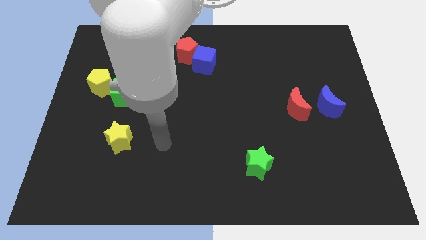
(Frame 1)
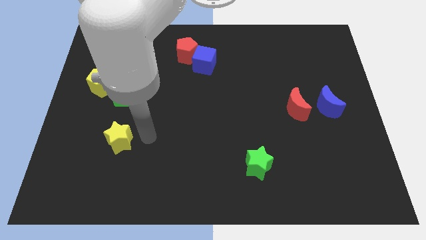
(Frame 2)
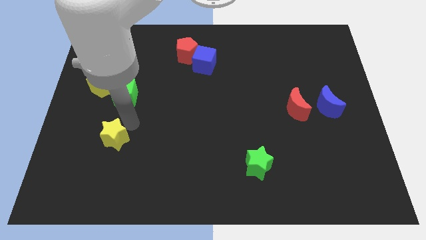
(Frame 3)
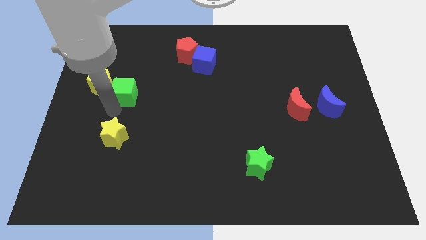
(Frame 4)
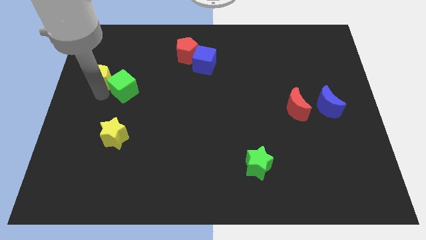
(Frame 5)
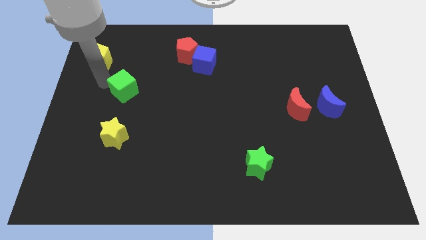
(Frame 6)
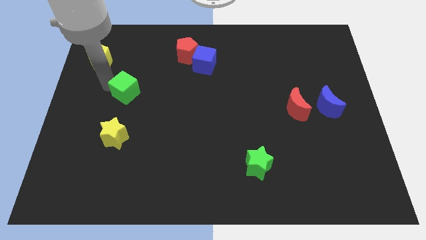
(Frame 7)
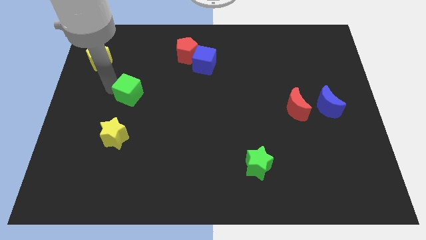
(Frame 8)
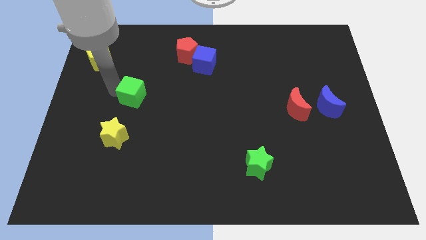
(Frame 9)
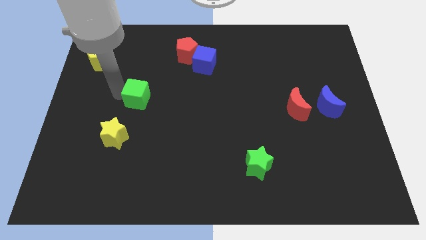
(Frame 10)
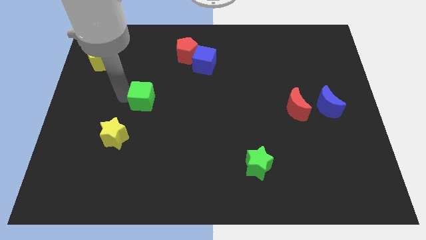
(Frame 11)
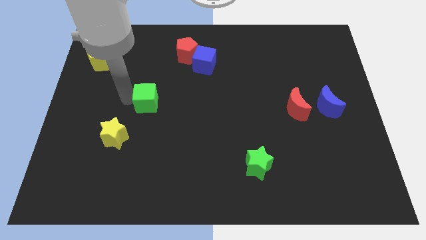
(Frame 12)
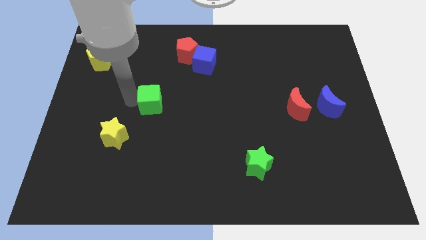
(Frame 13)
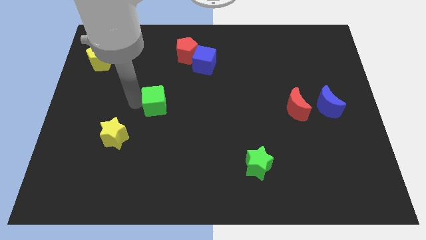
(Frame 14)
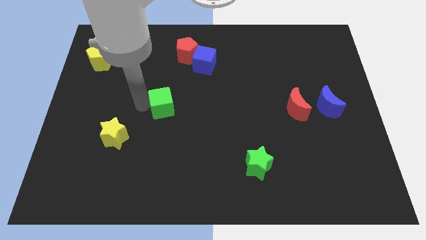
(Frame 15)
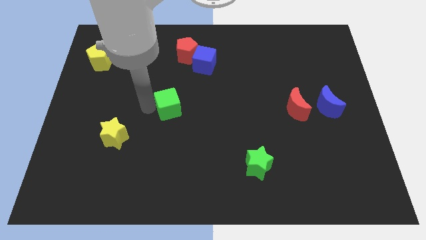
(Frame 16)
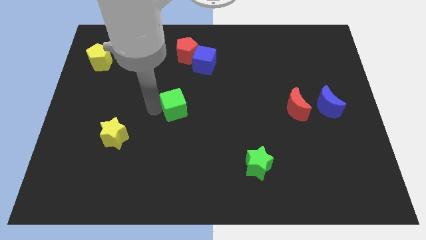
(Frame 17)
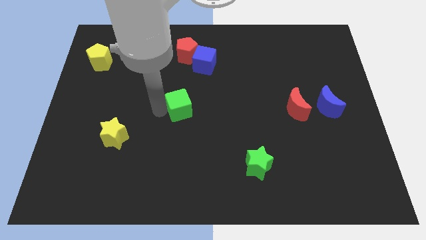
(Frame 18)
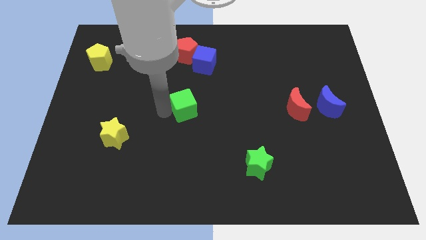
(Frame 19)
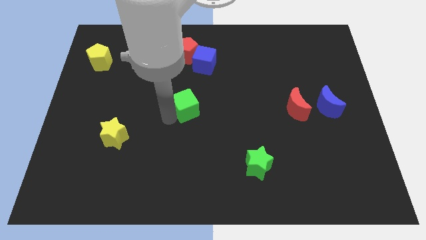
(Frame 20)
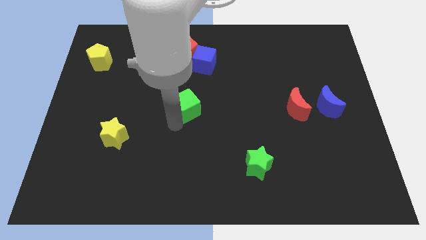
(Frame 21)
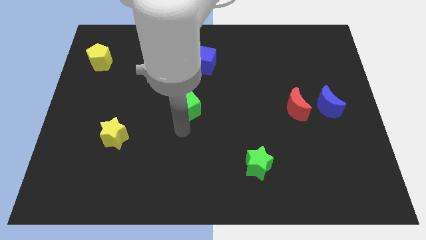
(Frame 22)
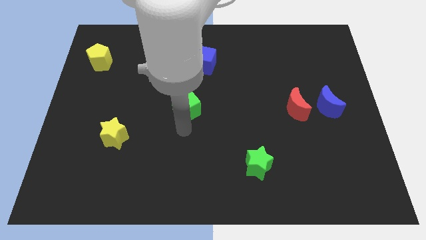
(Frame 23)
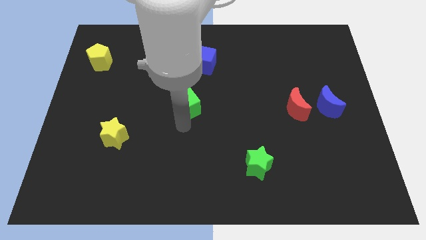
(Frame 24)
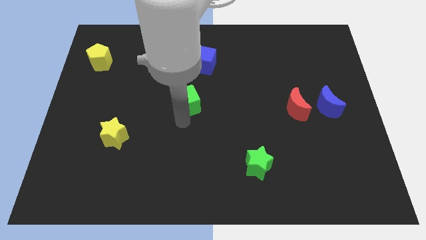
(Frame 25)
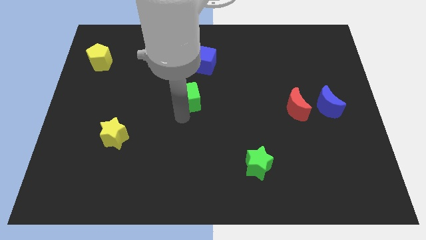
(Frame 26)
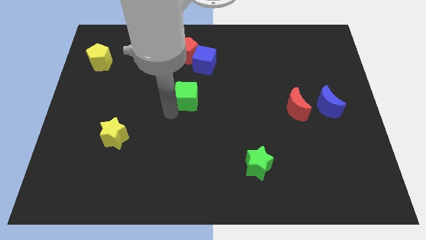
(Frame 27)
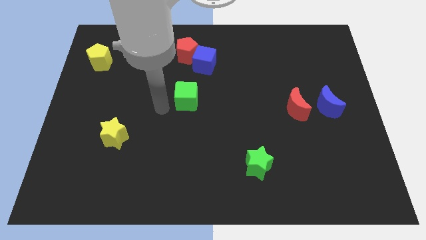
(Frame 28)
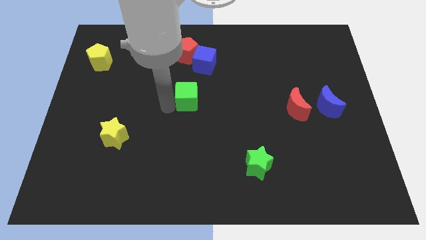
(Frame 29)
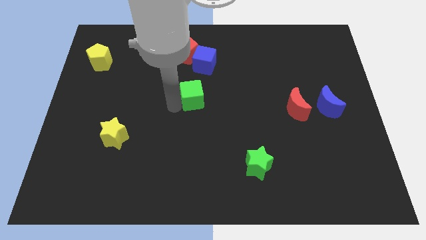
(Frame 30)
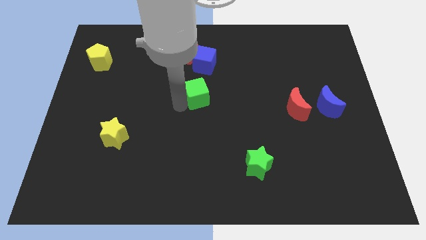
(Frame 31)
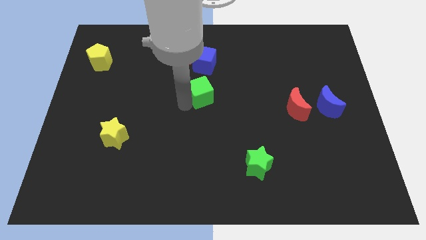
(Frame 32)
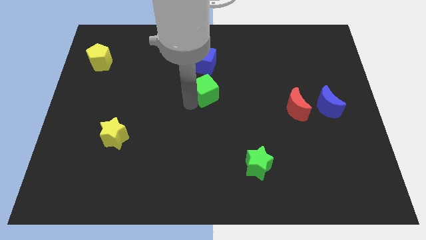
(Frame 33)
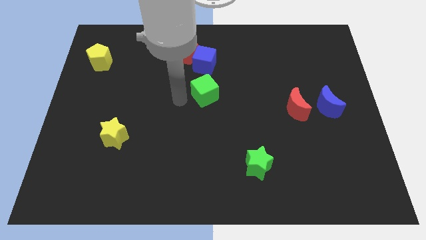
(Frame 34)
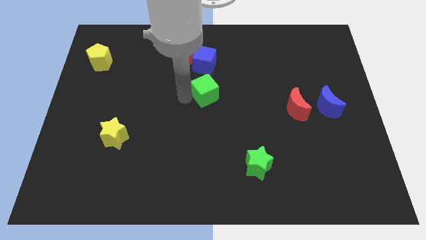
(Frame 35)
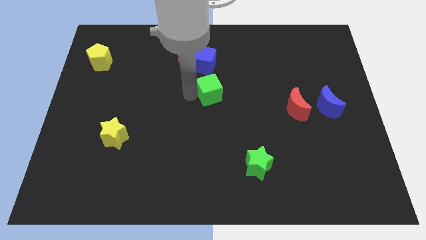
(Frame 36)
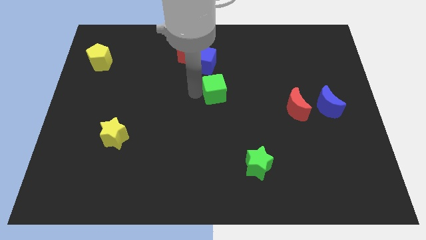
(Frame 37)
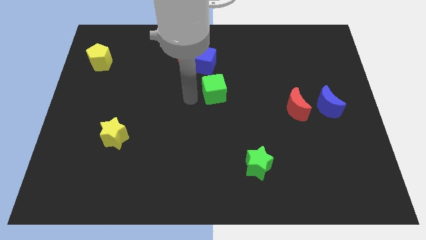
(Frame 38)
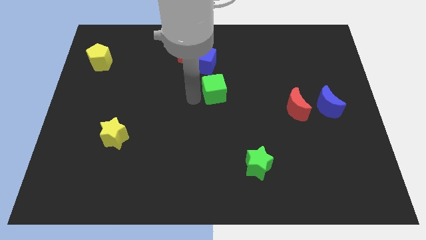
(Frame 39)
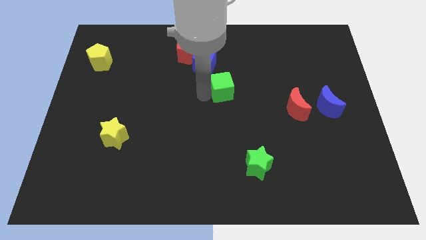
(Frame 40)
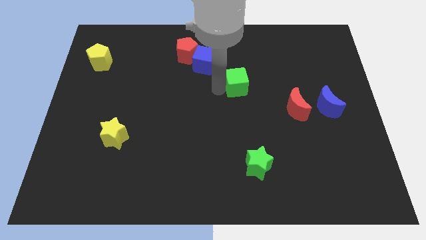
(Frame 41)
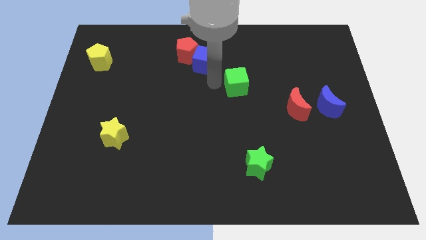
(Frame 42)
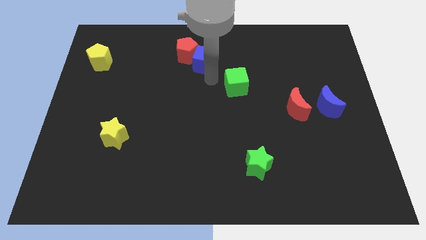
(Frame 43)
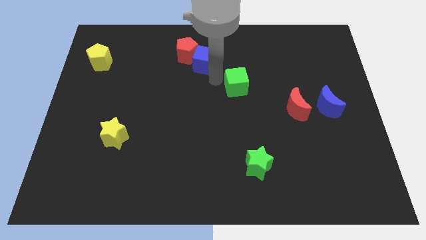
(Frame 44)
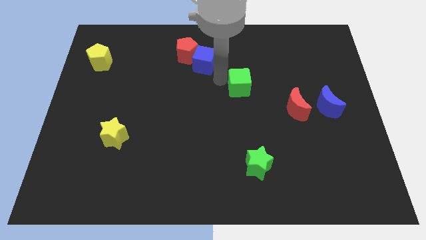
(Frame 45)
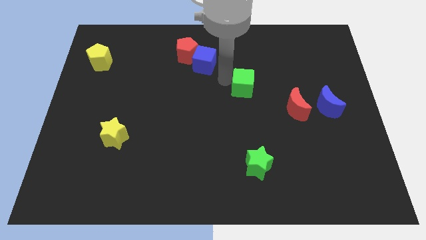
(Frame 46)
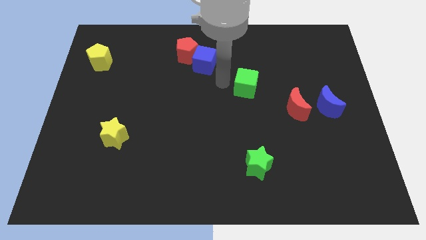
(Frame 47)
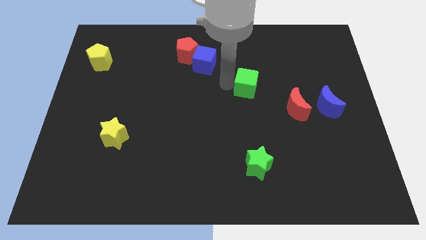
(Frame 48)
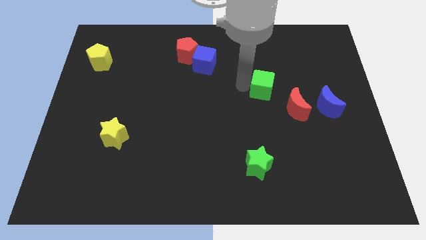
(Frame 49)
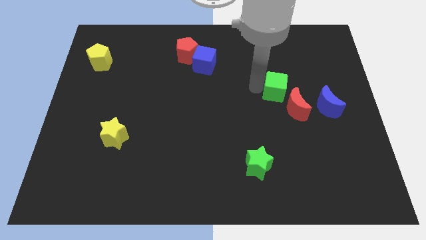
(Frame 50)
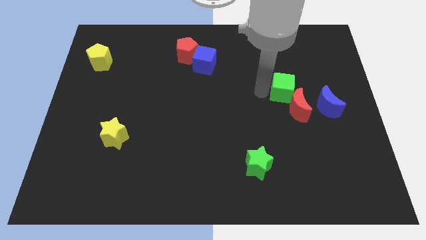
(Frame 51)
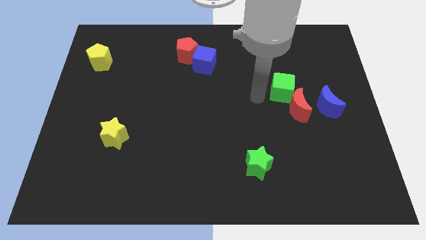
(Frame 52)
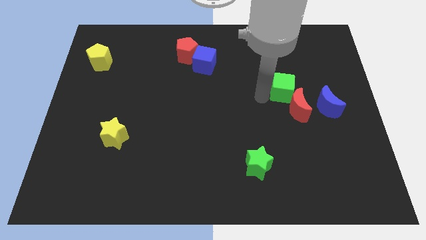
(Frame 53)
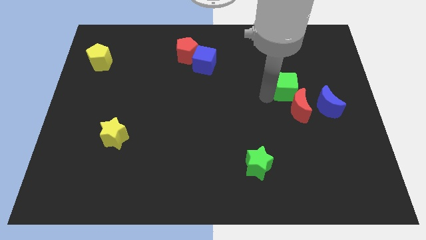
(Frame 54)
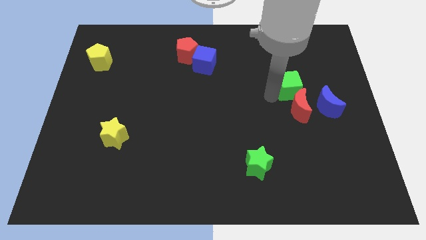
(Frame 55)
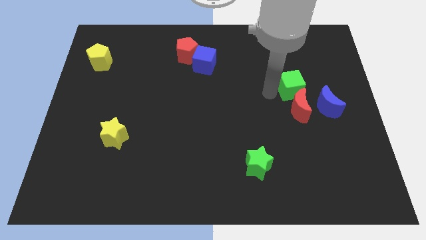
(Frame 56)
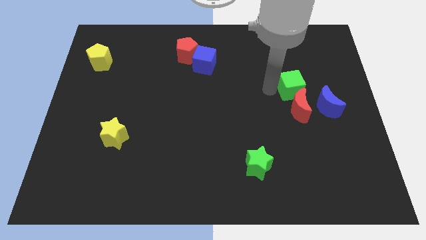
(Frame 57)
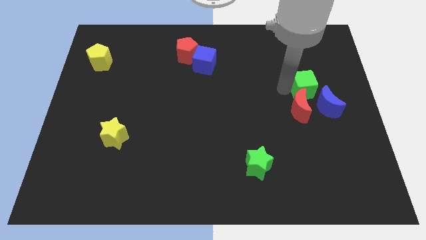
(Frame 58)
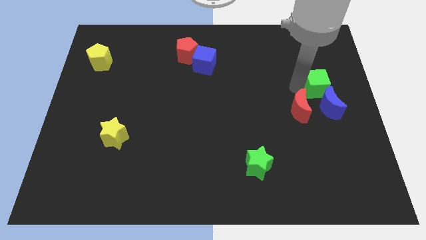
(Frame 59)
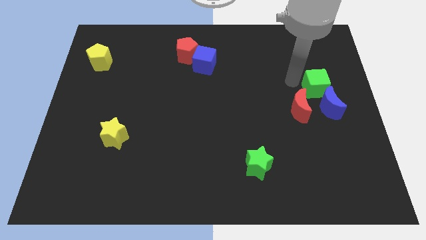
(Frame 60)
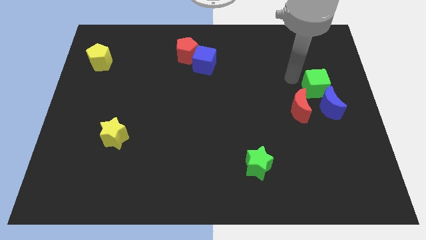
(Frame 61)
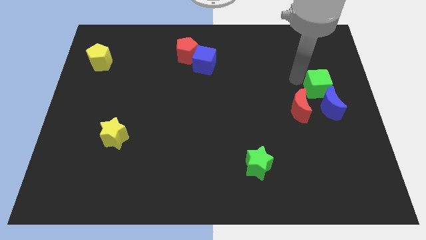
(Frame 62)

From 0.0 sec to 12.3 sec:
push the green cube to the right side of the board

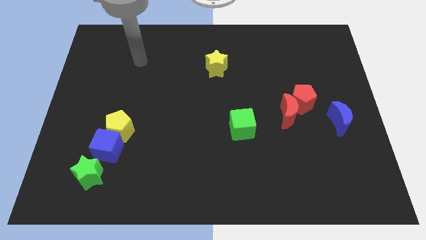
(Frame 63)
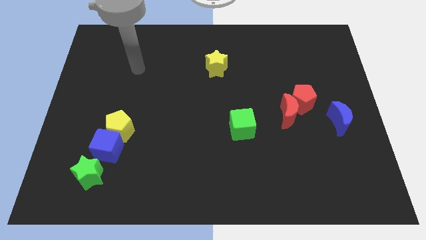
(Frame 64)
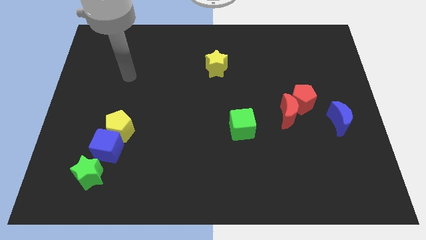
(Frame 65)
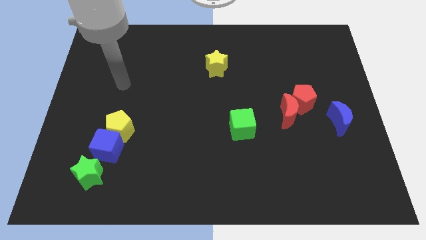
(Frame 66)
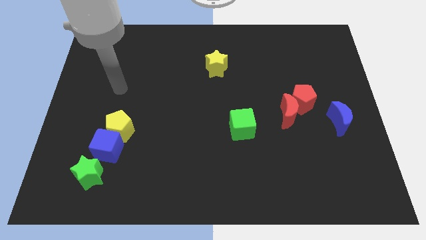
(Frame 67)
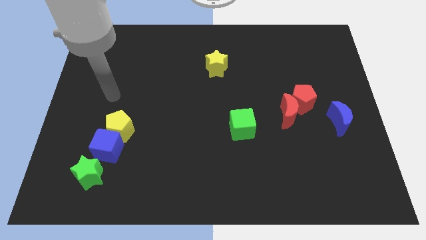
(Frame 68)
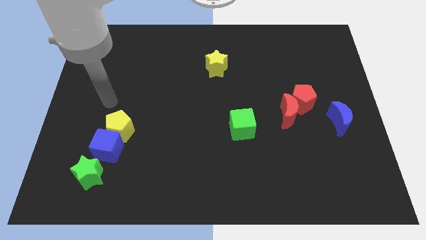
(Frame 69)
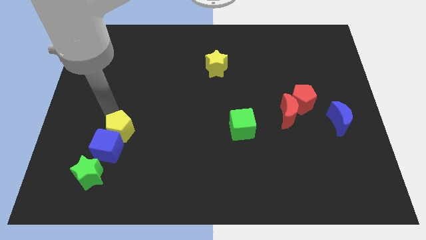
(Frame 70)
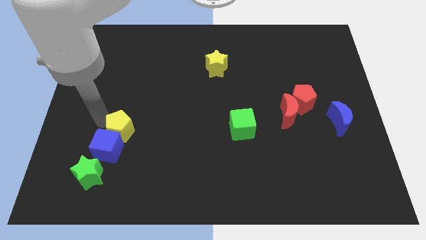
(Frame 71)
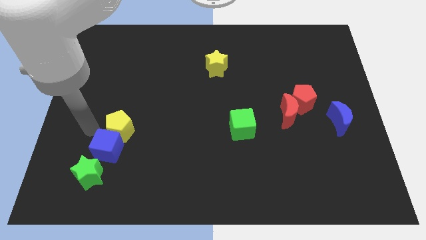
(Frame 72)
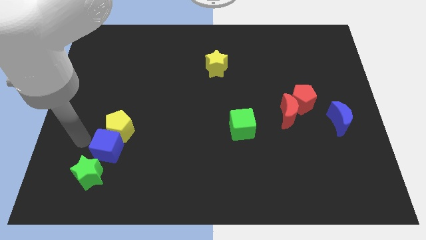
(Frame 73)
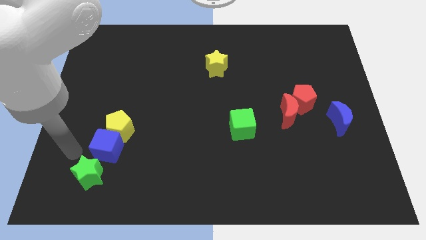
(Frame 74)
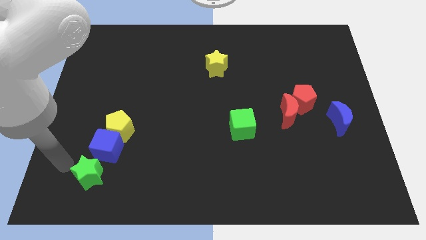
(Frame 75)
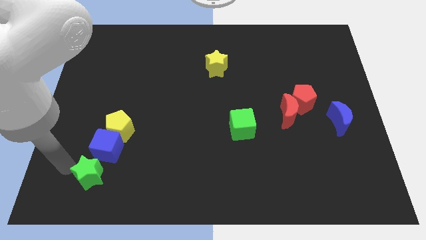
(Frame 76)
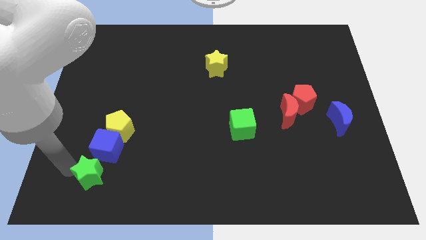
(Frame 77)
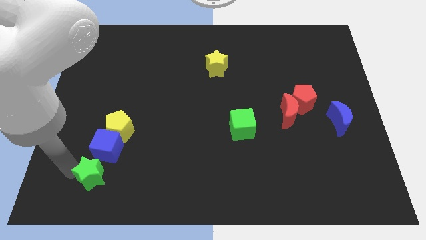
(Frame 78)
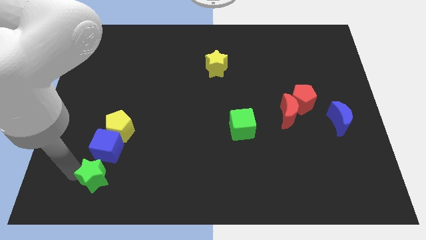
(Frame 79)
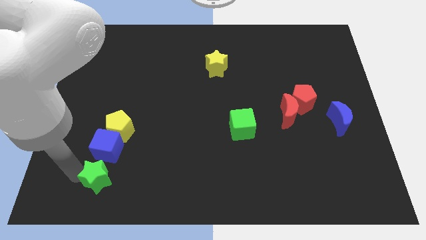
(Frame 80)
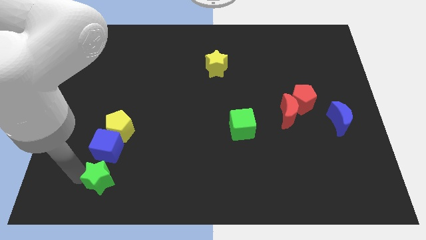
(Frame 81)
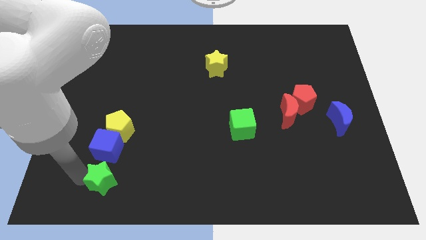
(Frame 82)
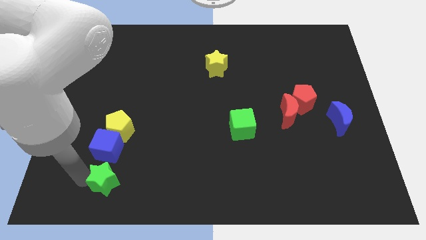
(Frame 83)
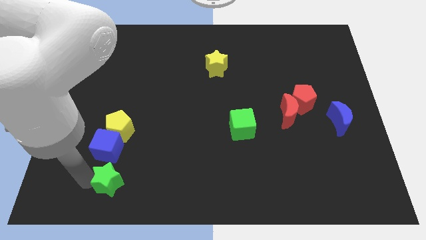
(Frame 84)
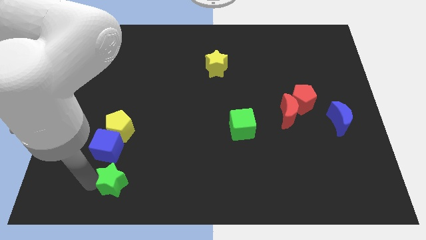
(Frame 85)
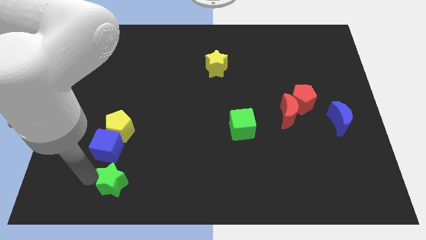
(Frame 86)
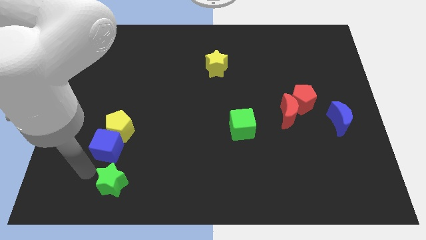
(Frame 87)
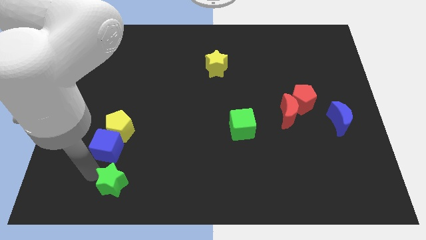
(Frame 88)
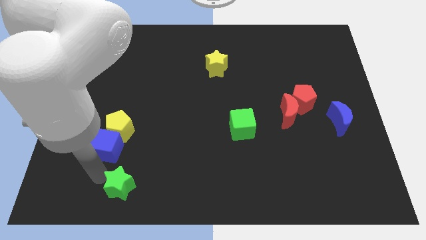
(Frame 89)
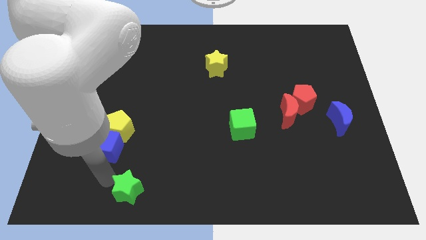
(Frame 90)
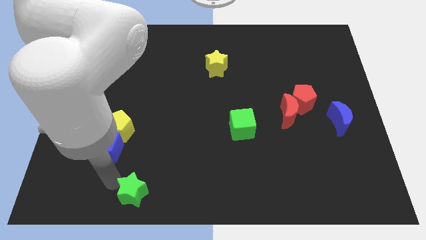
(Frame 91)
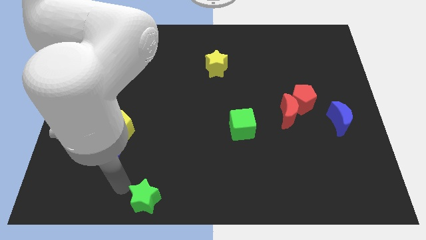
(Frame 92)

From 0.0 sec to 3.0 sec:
put the green star to the bottom
